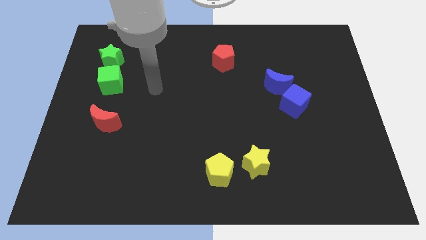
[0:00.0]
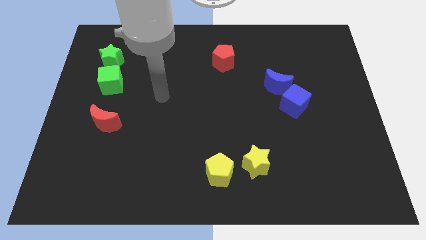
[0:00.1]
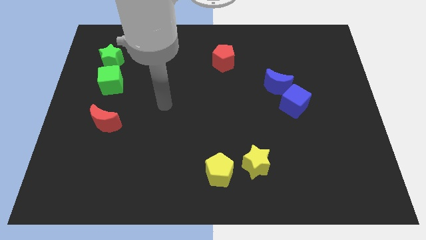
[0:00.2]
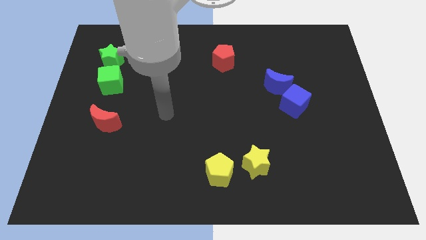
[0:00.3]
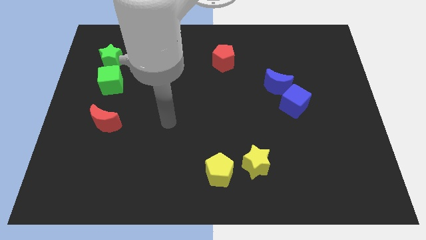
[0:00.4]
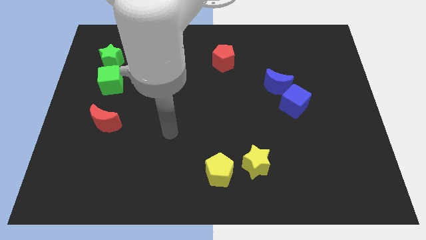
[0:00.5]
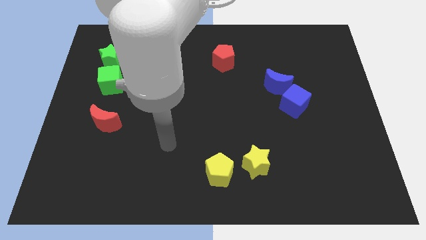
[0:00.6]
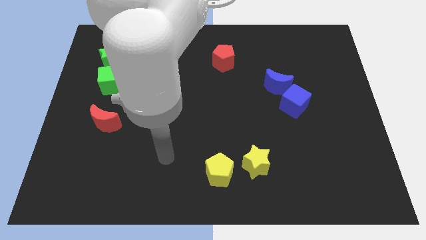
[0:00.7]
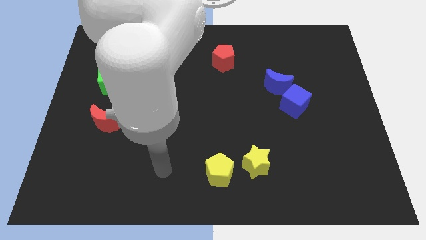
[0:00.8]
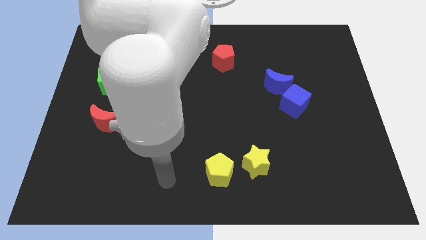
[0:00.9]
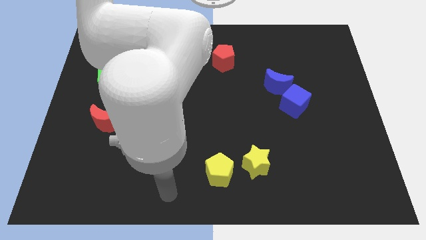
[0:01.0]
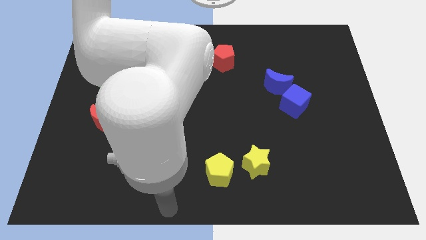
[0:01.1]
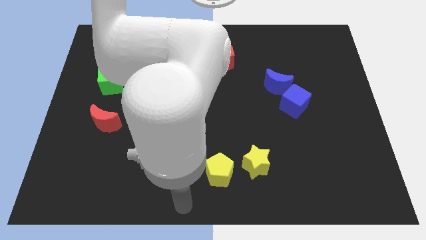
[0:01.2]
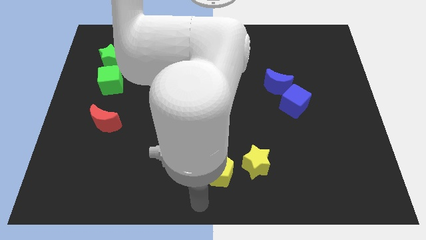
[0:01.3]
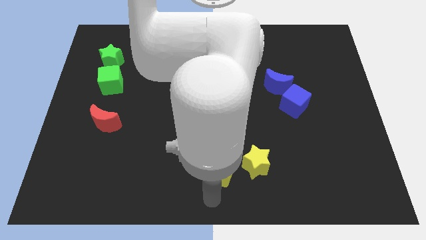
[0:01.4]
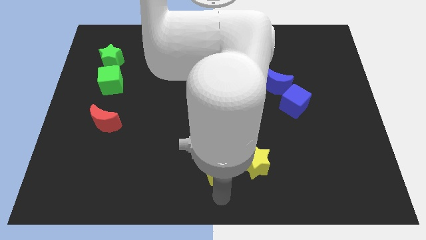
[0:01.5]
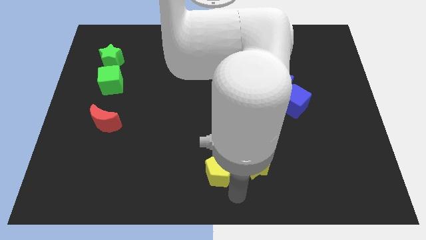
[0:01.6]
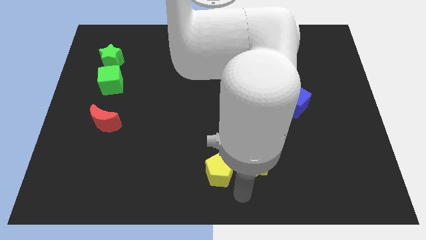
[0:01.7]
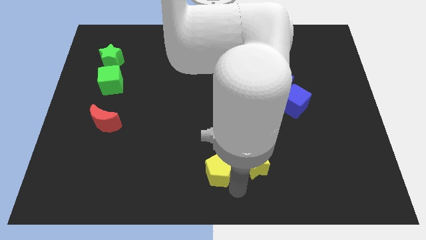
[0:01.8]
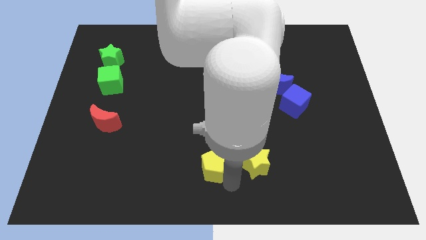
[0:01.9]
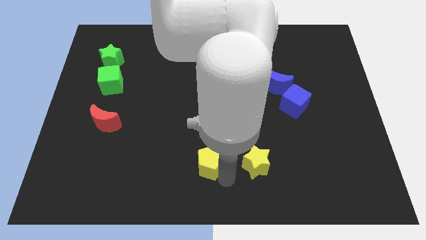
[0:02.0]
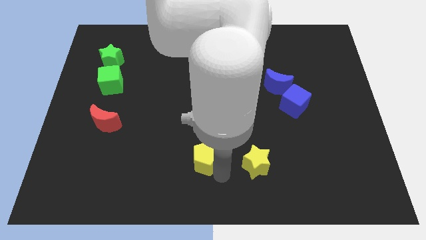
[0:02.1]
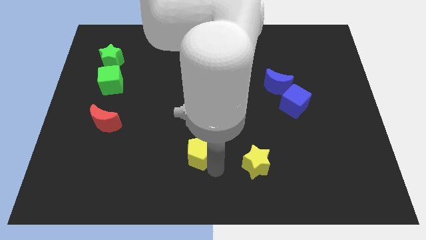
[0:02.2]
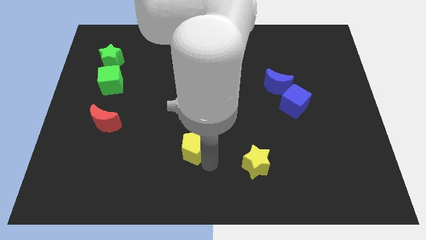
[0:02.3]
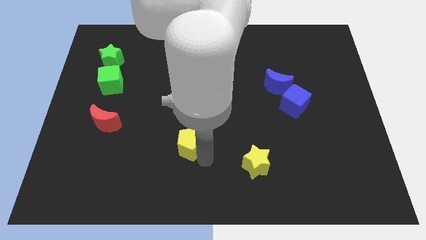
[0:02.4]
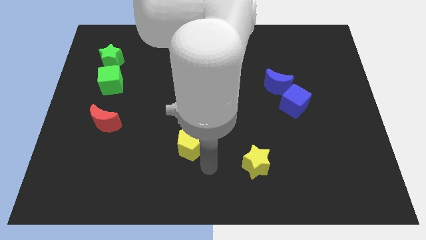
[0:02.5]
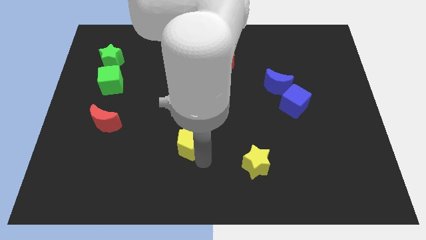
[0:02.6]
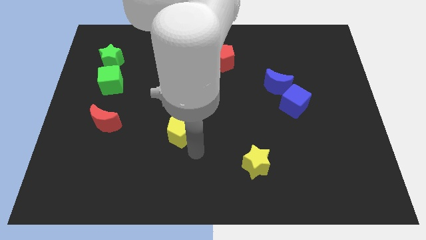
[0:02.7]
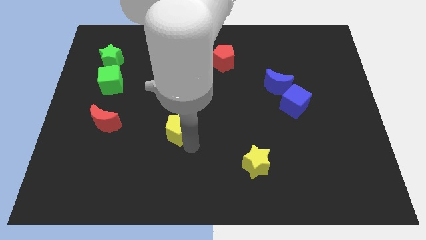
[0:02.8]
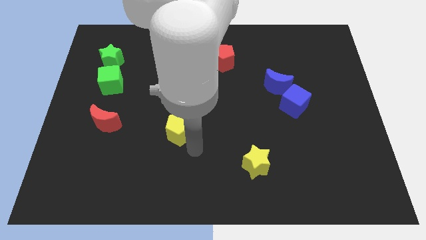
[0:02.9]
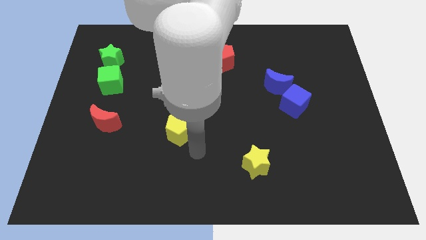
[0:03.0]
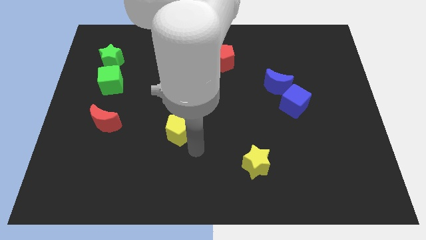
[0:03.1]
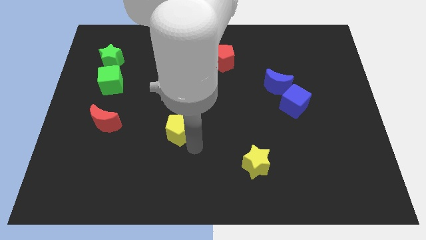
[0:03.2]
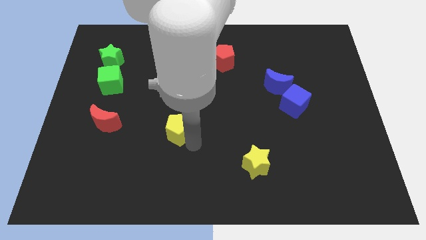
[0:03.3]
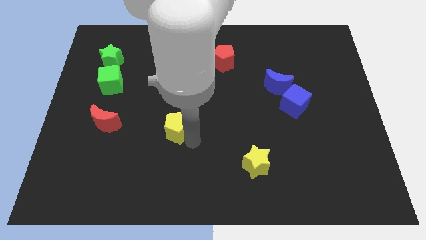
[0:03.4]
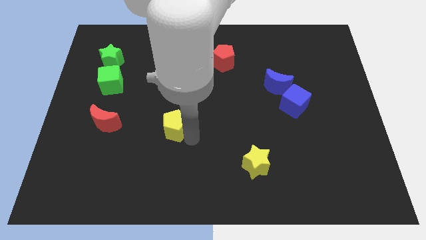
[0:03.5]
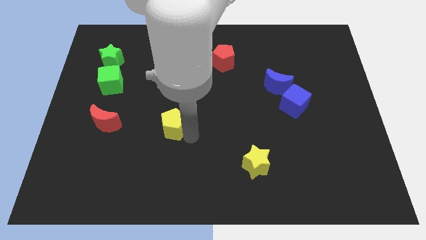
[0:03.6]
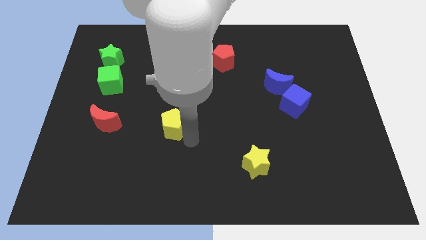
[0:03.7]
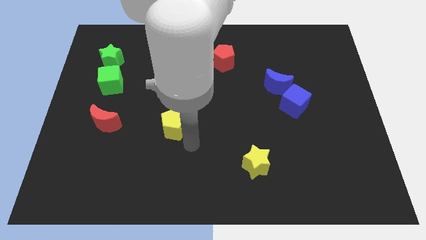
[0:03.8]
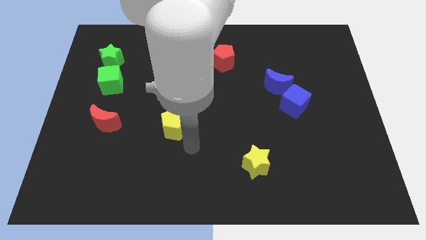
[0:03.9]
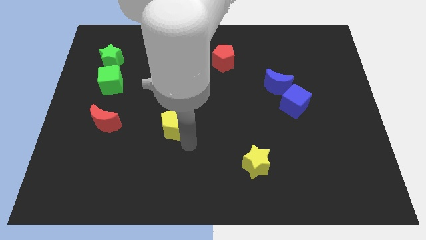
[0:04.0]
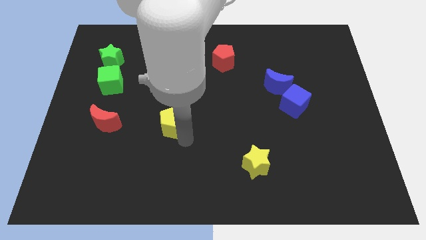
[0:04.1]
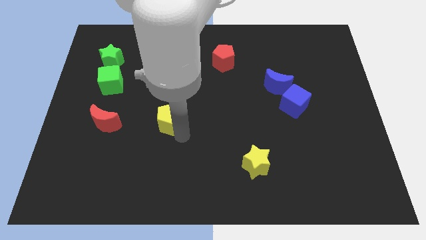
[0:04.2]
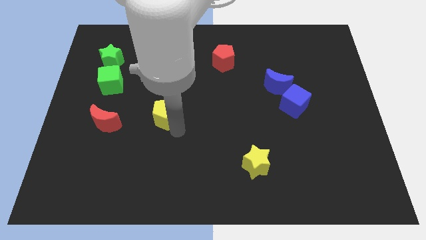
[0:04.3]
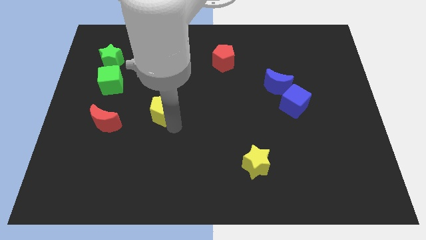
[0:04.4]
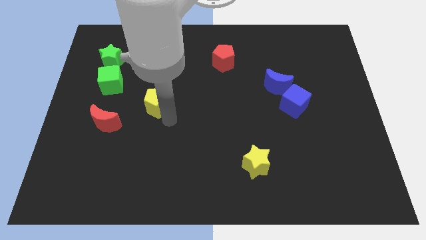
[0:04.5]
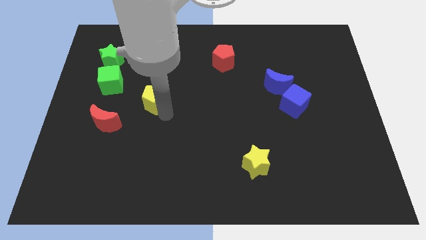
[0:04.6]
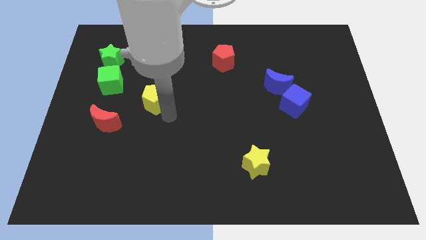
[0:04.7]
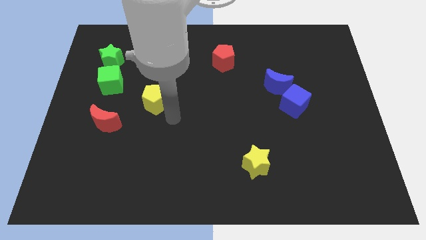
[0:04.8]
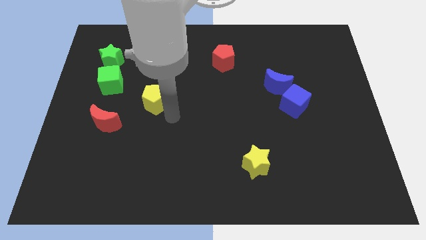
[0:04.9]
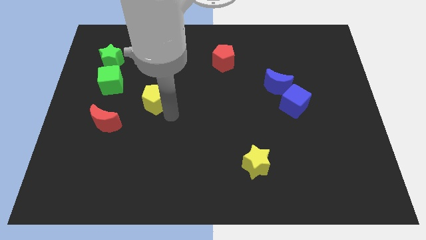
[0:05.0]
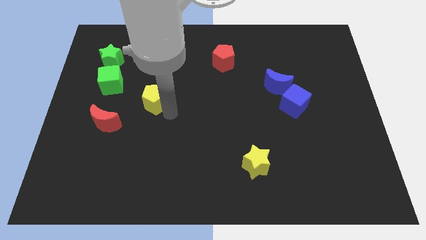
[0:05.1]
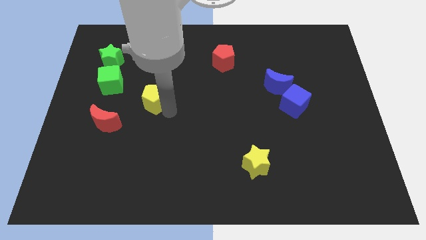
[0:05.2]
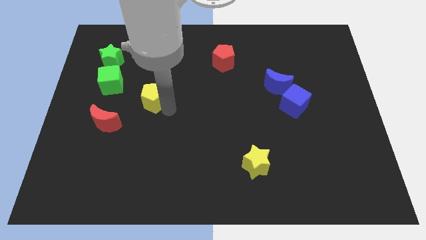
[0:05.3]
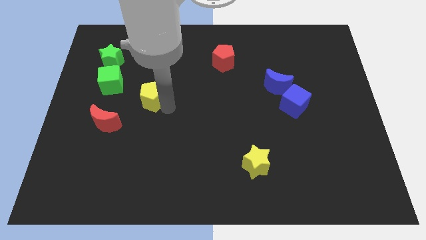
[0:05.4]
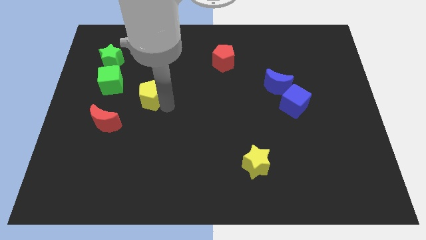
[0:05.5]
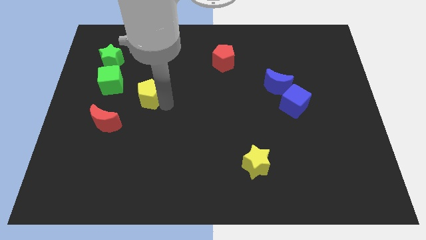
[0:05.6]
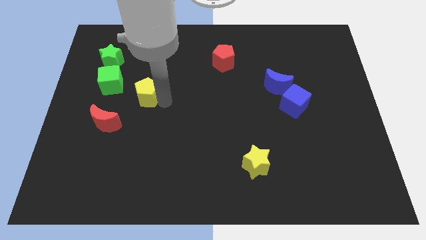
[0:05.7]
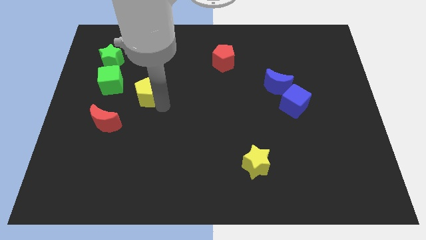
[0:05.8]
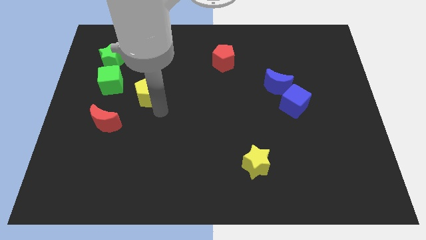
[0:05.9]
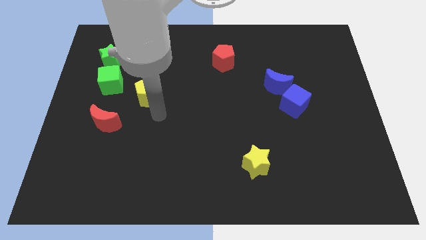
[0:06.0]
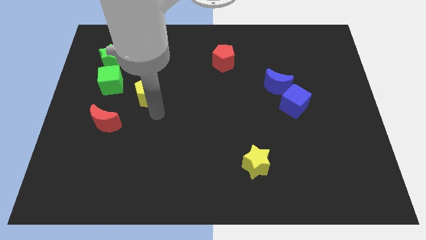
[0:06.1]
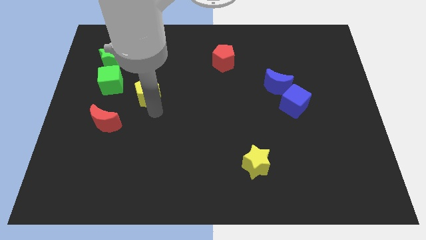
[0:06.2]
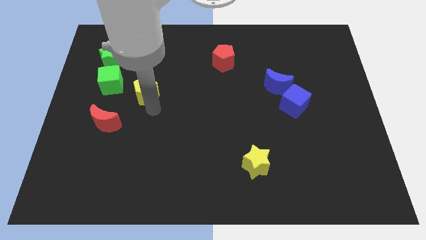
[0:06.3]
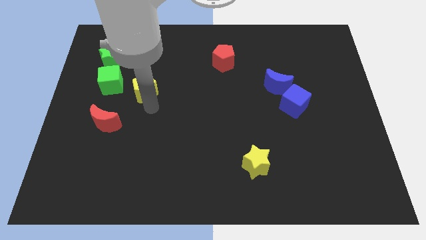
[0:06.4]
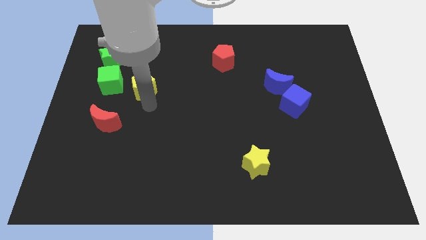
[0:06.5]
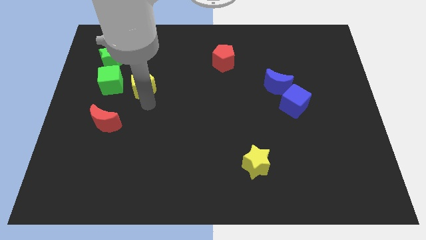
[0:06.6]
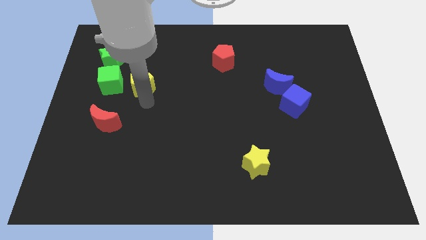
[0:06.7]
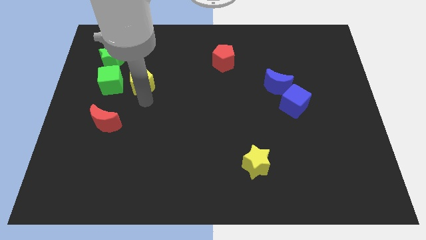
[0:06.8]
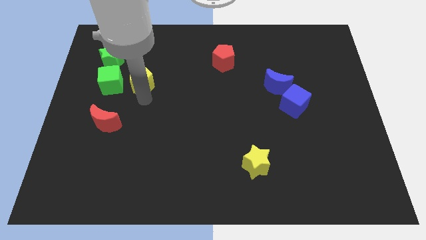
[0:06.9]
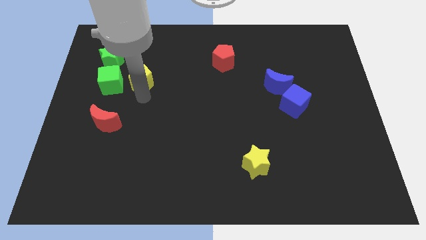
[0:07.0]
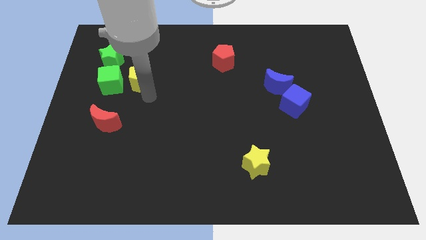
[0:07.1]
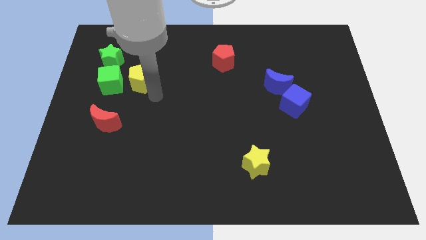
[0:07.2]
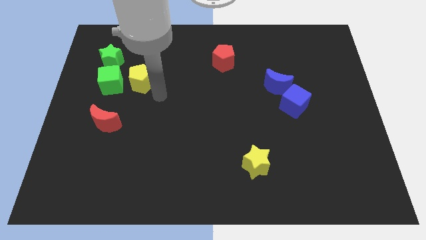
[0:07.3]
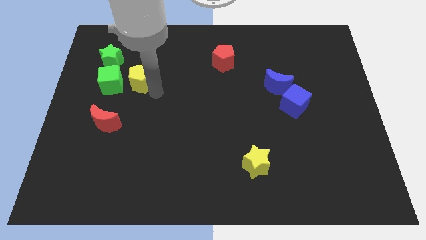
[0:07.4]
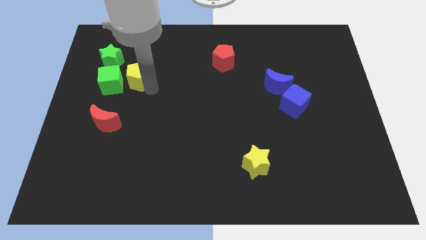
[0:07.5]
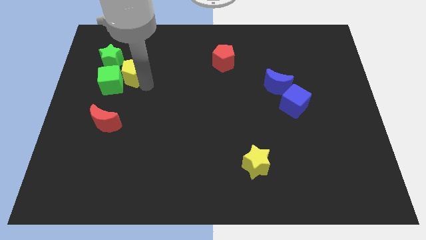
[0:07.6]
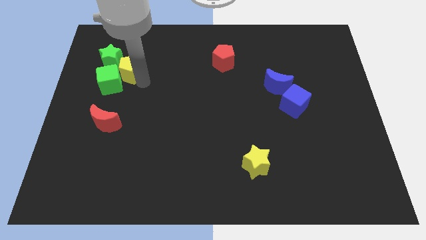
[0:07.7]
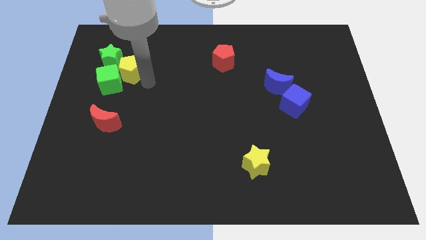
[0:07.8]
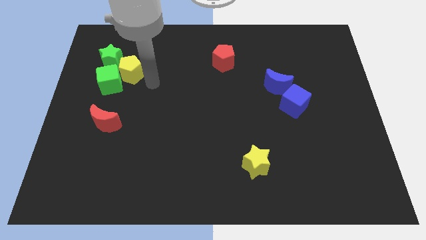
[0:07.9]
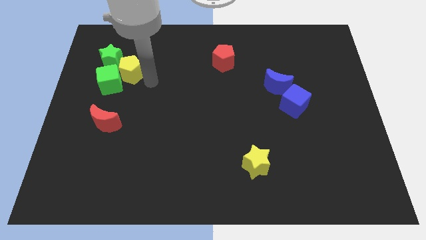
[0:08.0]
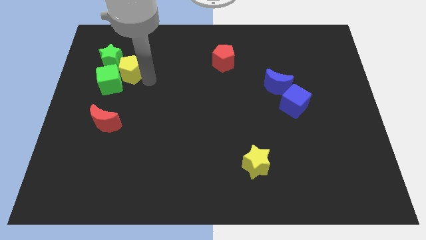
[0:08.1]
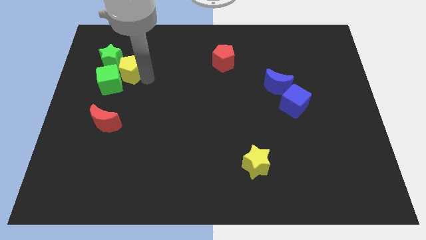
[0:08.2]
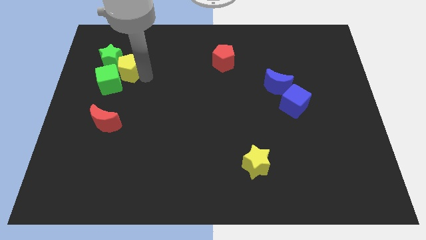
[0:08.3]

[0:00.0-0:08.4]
push the yellow pentagon next to the green star
